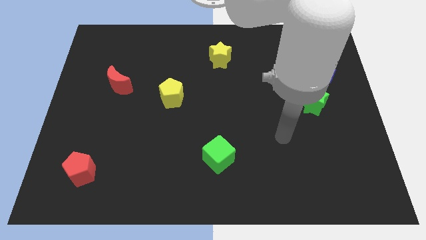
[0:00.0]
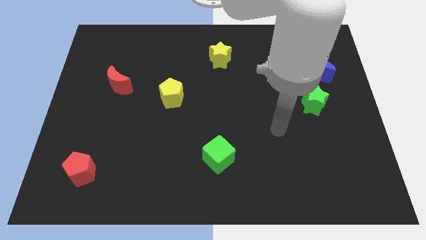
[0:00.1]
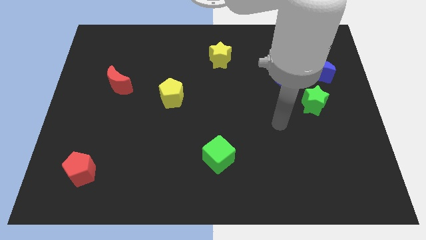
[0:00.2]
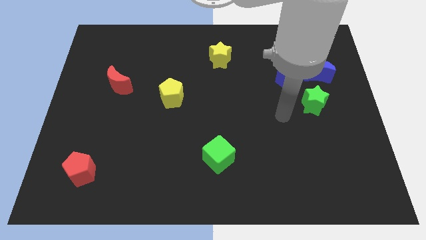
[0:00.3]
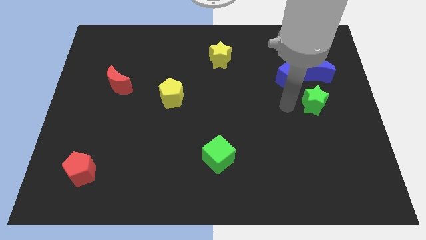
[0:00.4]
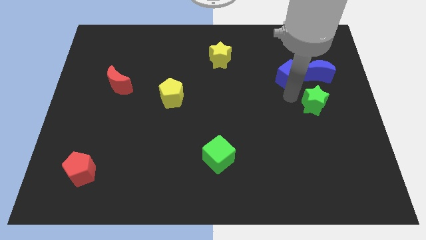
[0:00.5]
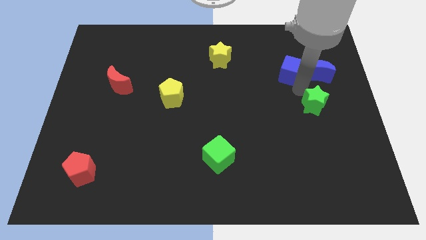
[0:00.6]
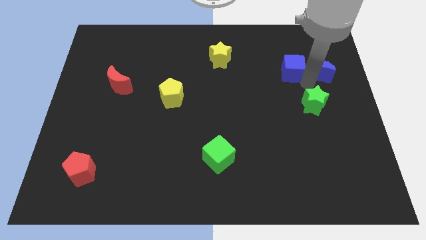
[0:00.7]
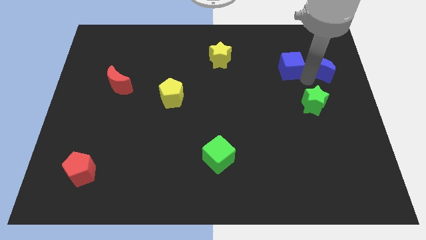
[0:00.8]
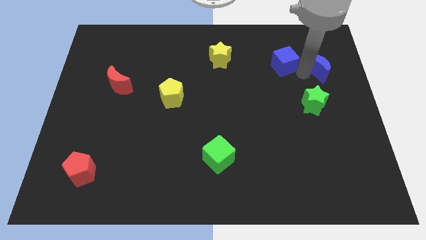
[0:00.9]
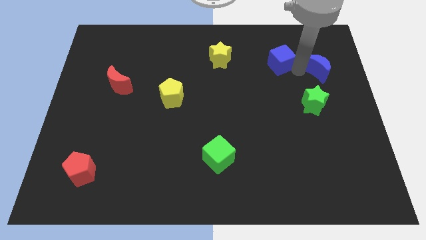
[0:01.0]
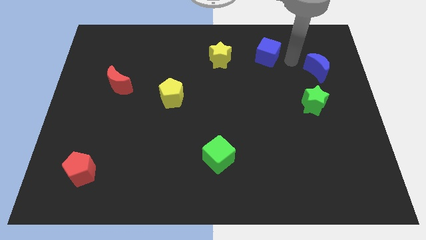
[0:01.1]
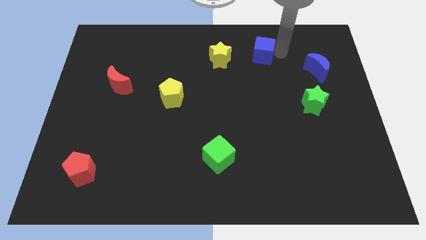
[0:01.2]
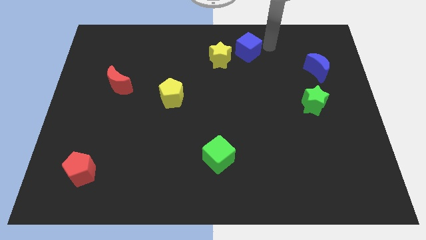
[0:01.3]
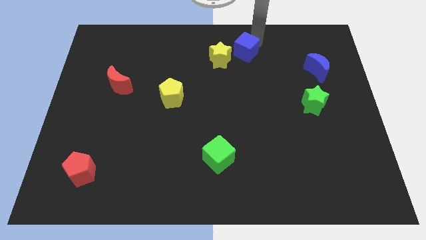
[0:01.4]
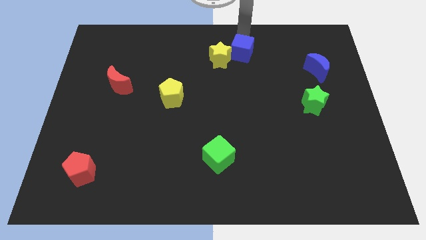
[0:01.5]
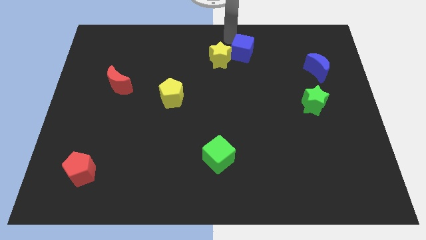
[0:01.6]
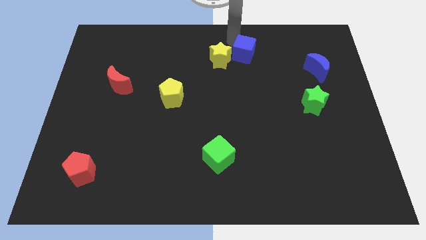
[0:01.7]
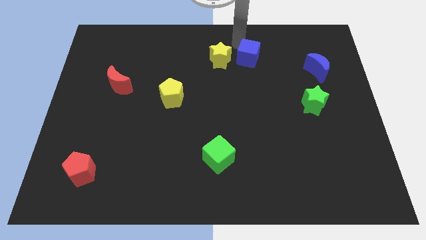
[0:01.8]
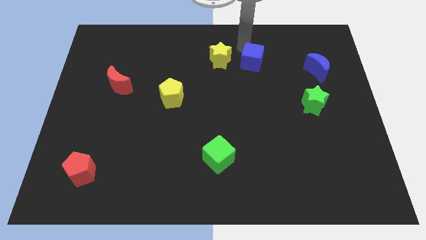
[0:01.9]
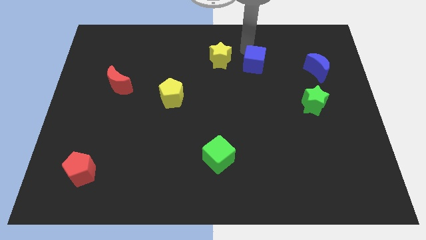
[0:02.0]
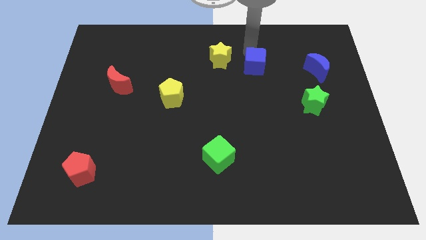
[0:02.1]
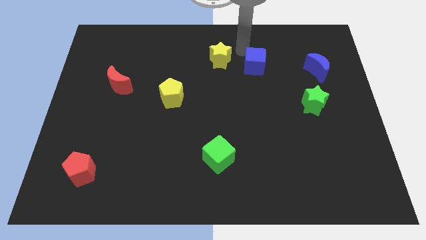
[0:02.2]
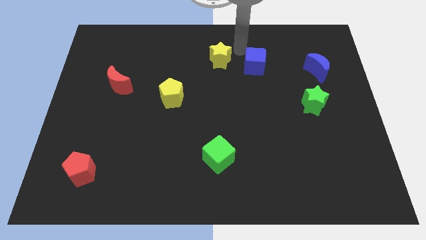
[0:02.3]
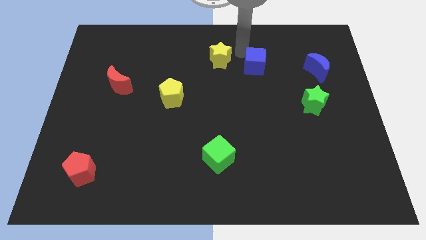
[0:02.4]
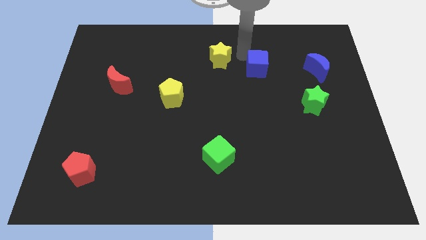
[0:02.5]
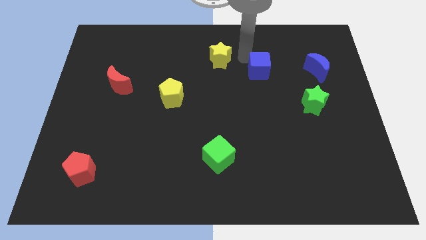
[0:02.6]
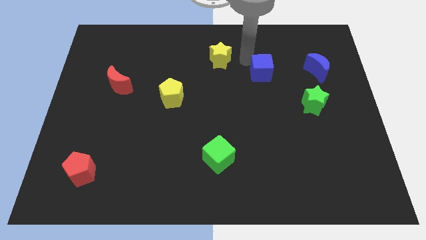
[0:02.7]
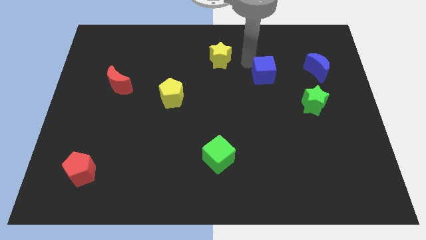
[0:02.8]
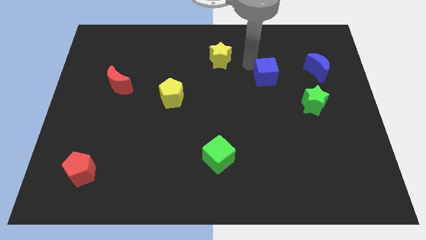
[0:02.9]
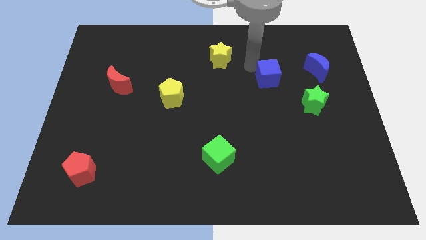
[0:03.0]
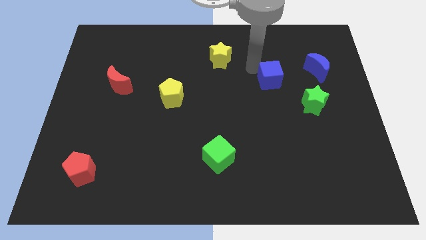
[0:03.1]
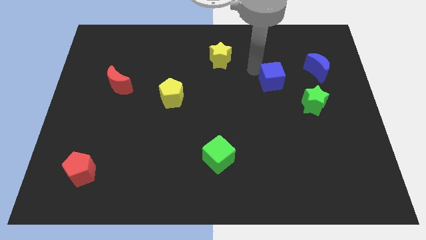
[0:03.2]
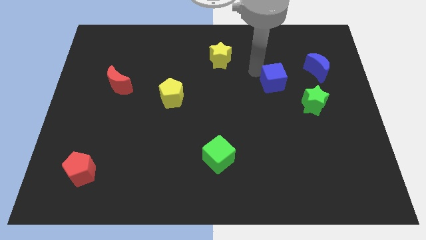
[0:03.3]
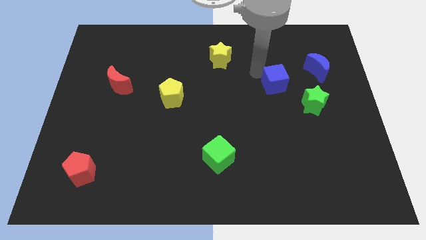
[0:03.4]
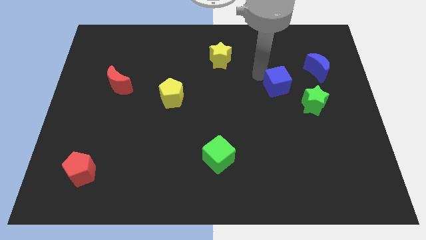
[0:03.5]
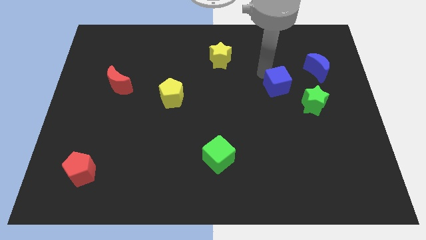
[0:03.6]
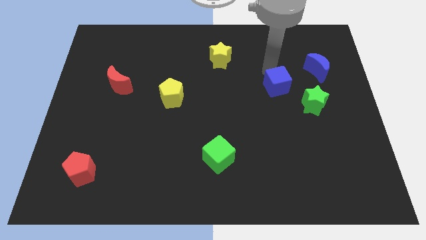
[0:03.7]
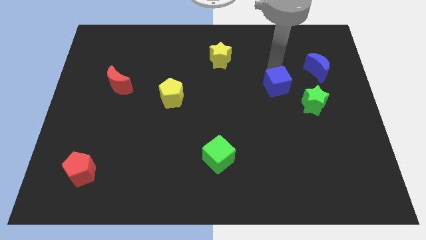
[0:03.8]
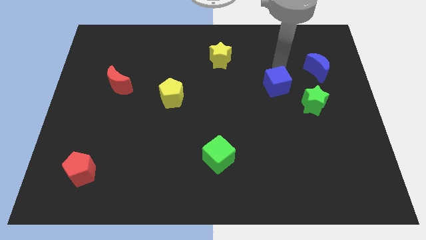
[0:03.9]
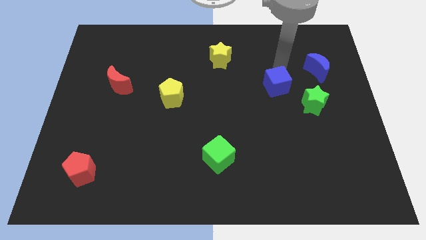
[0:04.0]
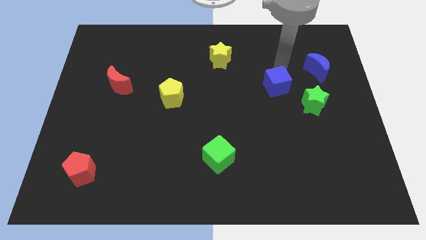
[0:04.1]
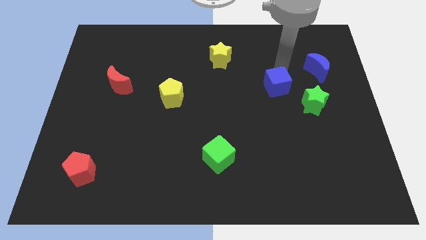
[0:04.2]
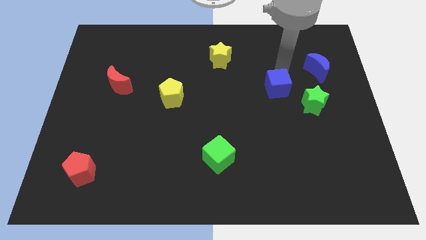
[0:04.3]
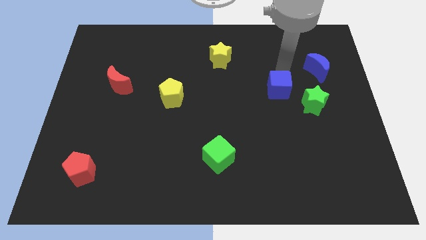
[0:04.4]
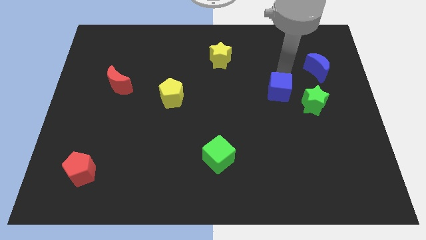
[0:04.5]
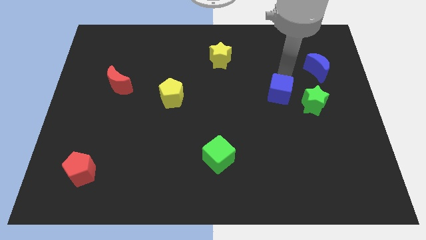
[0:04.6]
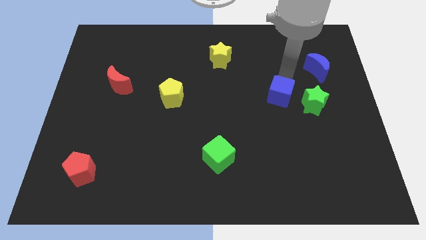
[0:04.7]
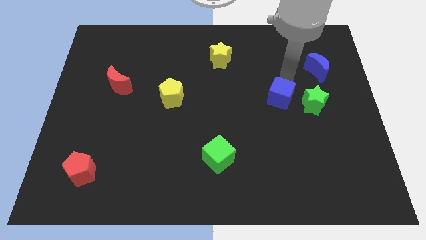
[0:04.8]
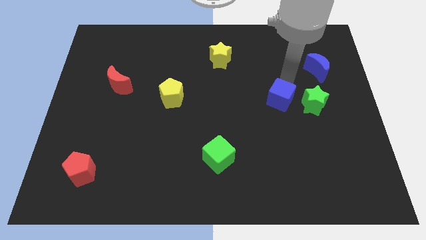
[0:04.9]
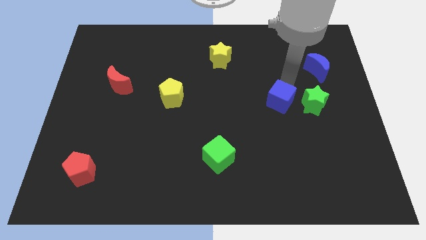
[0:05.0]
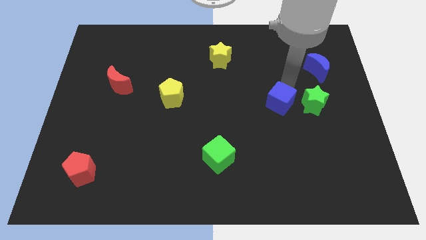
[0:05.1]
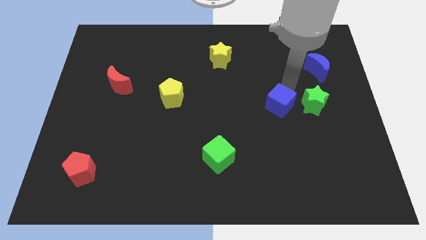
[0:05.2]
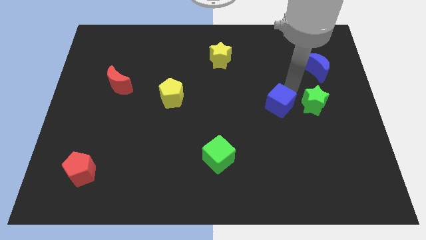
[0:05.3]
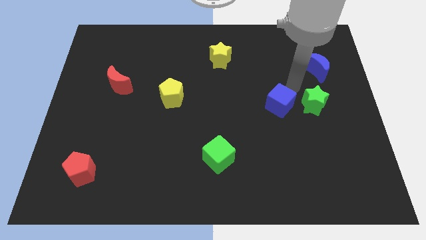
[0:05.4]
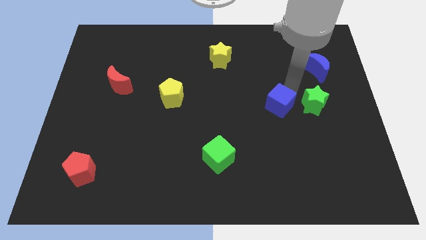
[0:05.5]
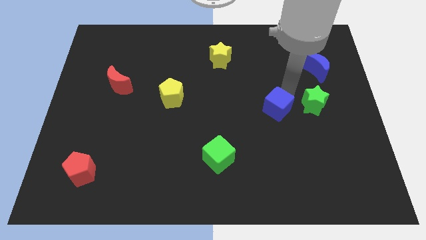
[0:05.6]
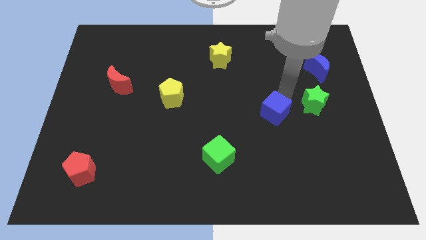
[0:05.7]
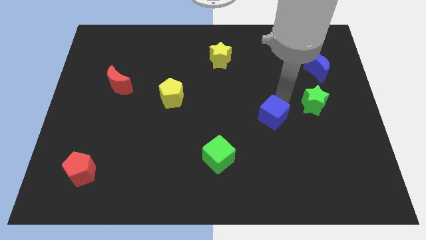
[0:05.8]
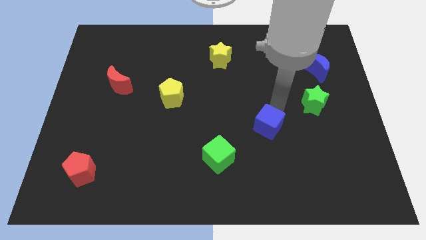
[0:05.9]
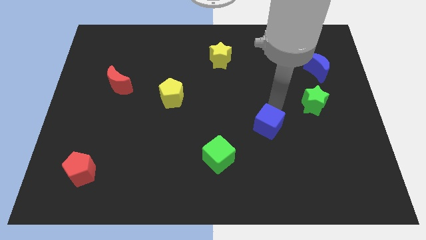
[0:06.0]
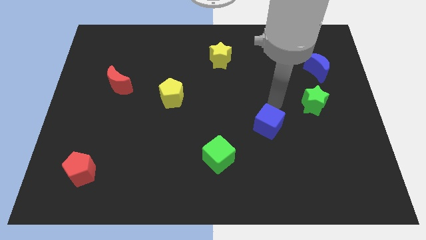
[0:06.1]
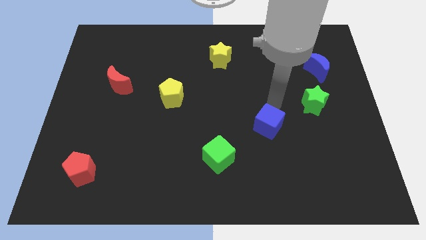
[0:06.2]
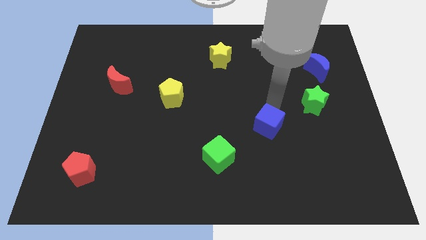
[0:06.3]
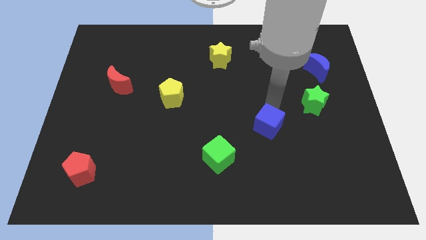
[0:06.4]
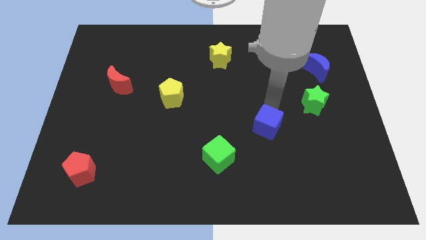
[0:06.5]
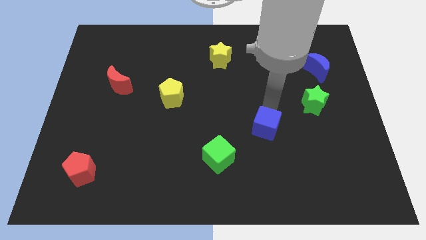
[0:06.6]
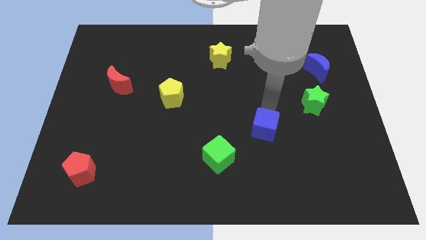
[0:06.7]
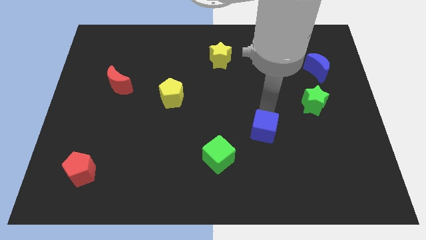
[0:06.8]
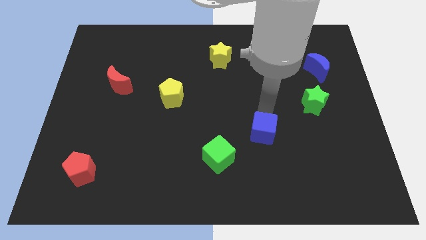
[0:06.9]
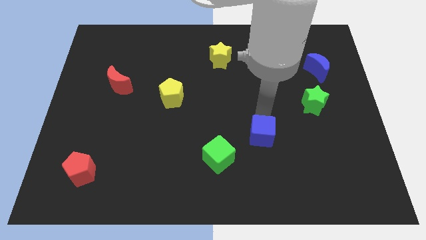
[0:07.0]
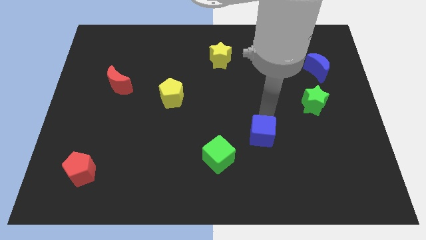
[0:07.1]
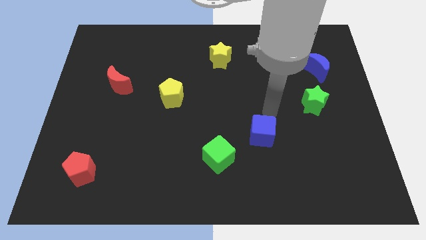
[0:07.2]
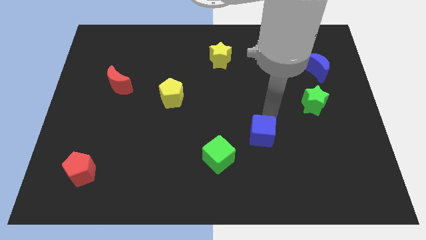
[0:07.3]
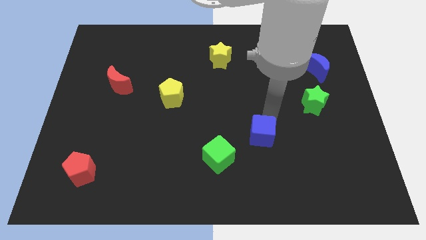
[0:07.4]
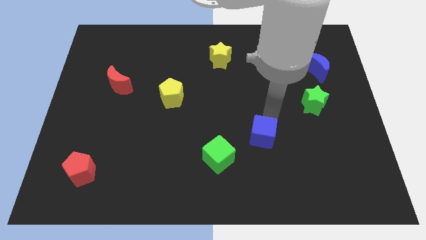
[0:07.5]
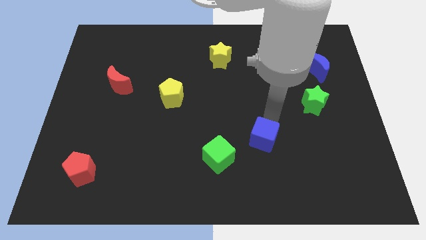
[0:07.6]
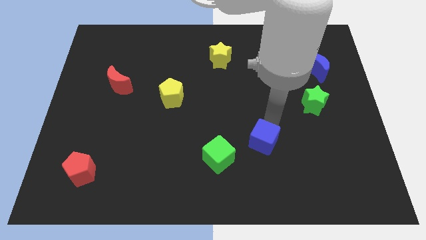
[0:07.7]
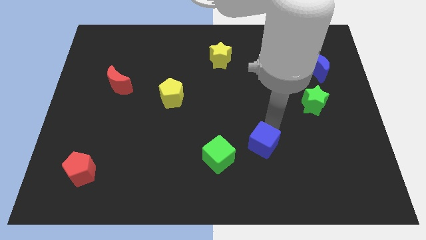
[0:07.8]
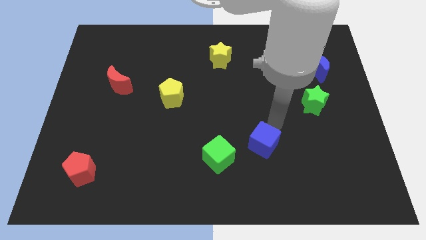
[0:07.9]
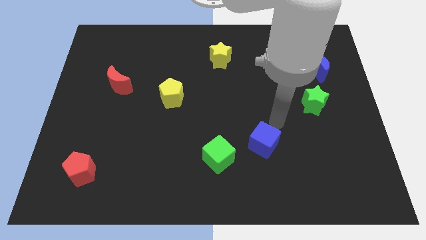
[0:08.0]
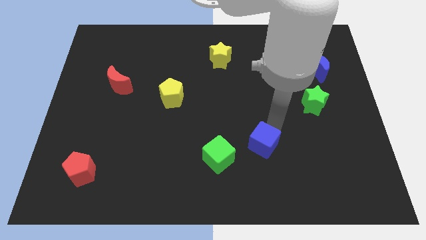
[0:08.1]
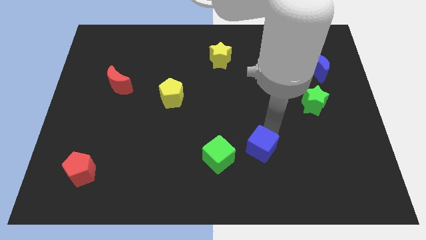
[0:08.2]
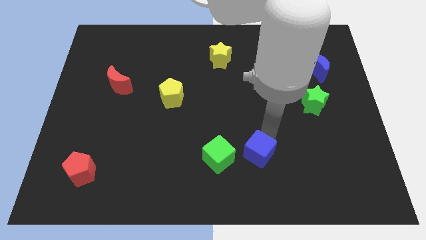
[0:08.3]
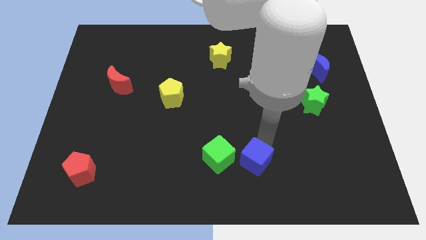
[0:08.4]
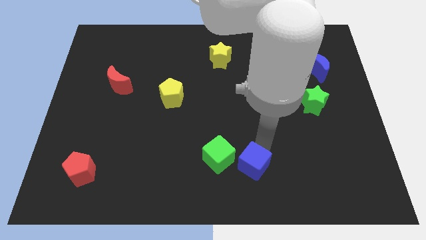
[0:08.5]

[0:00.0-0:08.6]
push the blue cube to the bottom
